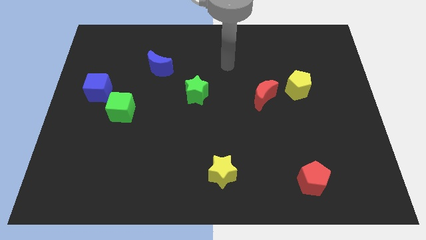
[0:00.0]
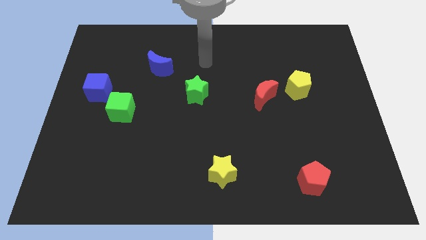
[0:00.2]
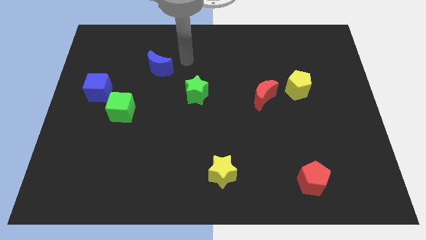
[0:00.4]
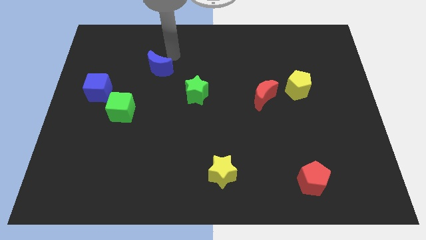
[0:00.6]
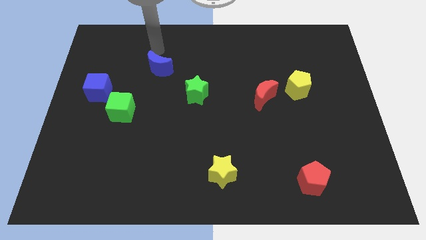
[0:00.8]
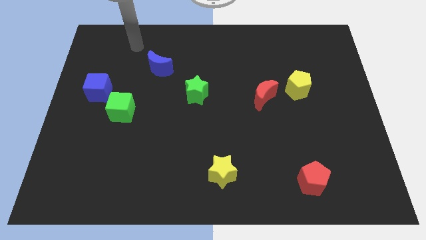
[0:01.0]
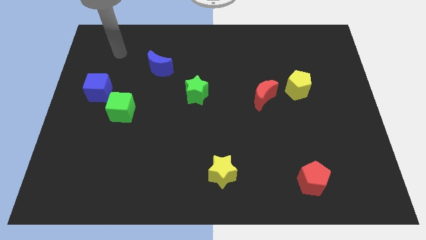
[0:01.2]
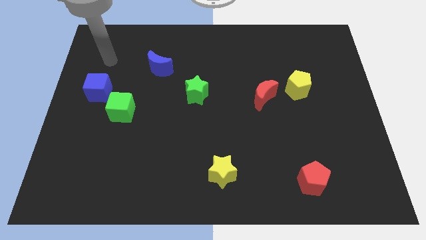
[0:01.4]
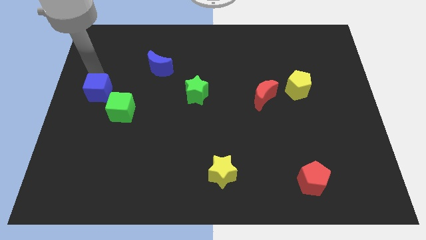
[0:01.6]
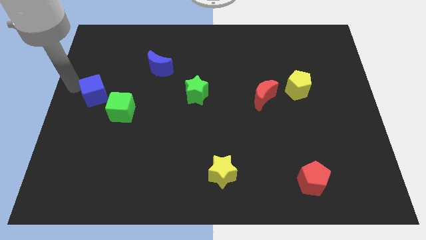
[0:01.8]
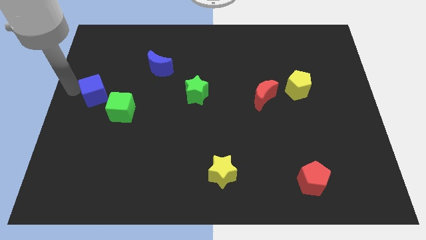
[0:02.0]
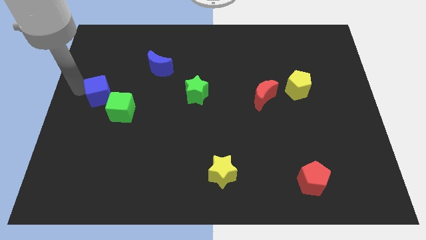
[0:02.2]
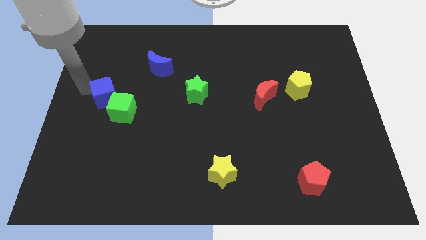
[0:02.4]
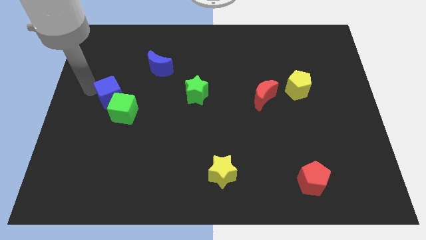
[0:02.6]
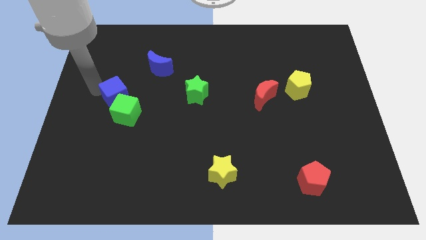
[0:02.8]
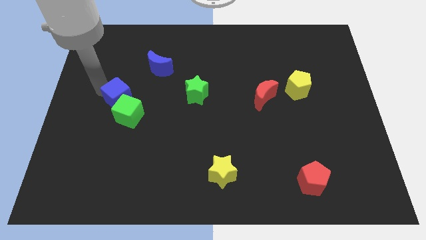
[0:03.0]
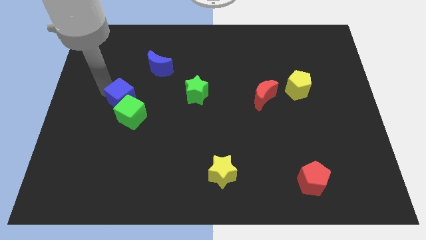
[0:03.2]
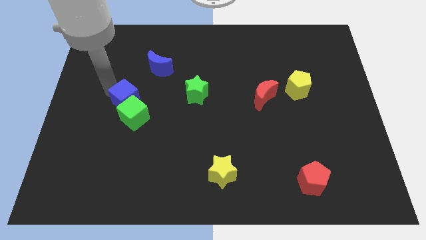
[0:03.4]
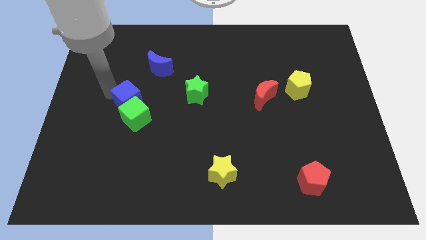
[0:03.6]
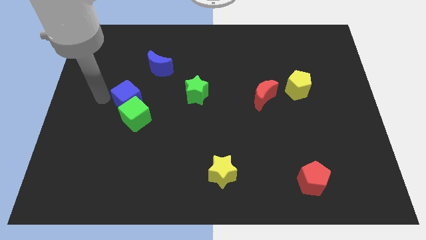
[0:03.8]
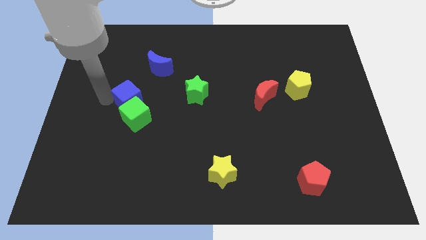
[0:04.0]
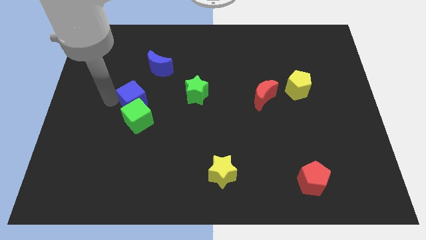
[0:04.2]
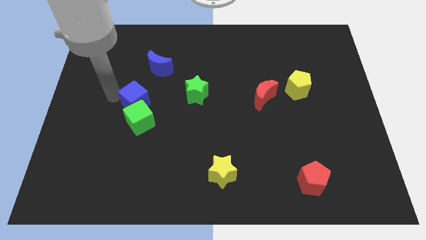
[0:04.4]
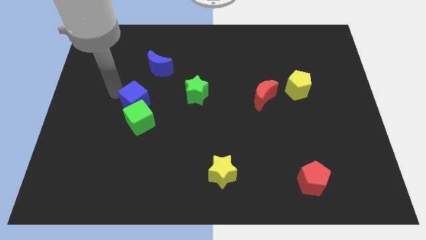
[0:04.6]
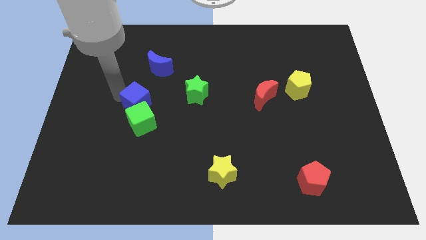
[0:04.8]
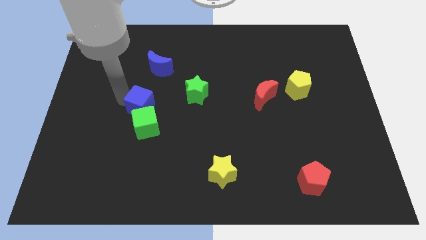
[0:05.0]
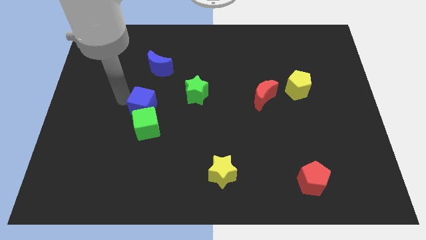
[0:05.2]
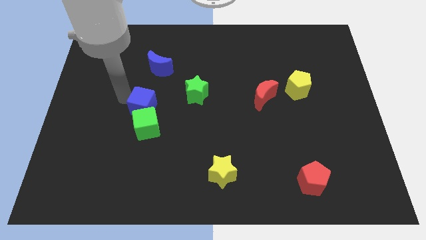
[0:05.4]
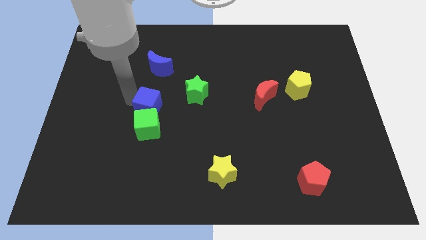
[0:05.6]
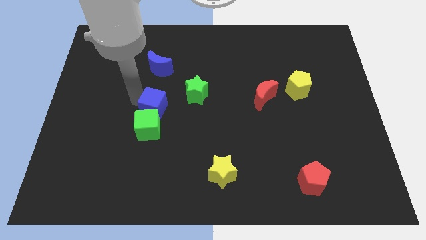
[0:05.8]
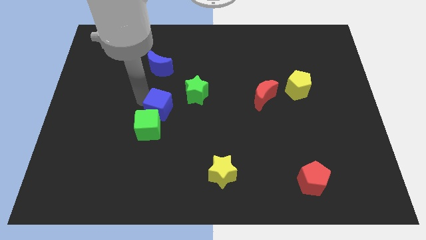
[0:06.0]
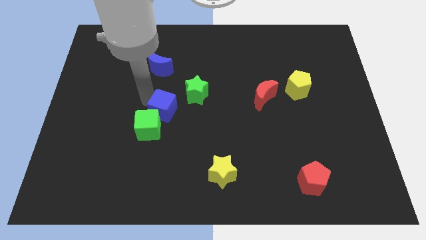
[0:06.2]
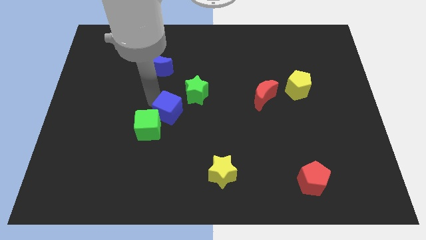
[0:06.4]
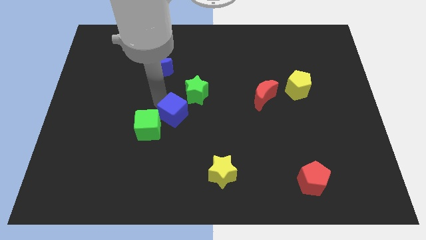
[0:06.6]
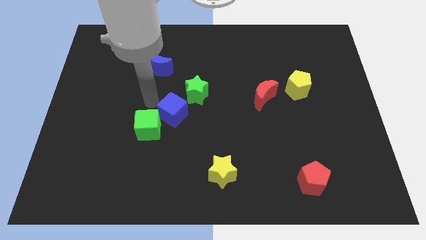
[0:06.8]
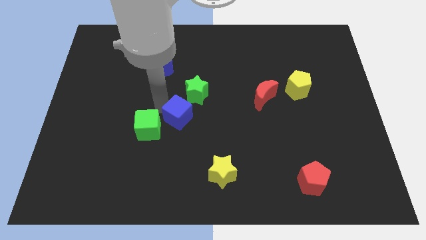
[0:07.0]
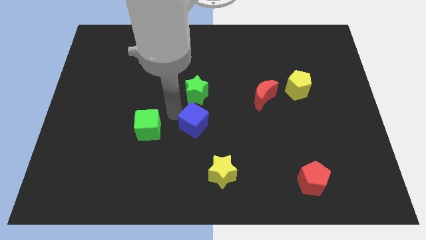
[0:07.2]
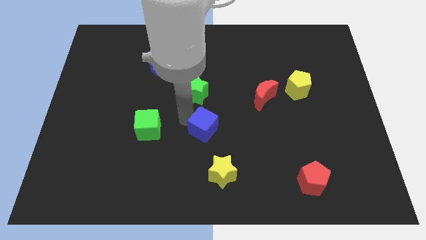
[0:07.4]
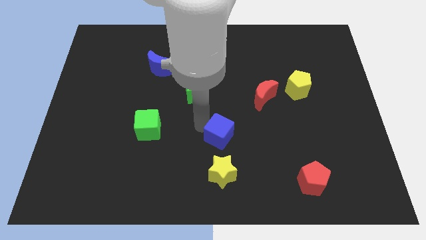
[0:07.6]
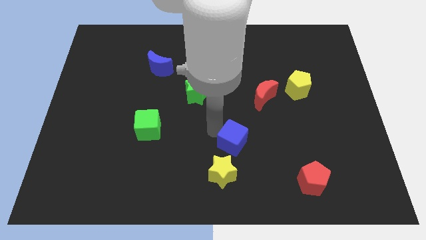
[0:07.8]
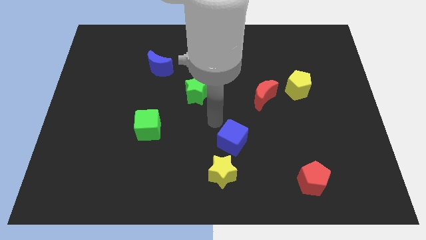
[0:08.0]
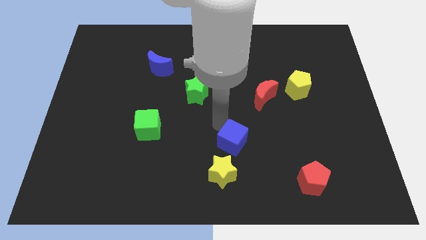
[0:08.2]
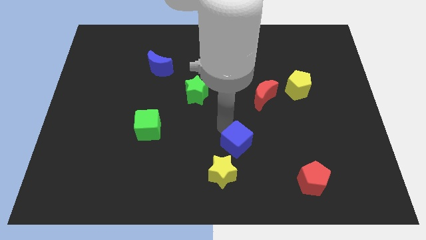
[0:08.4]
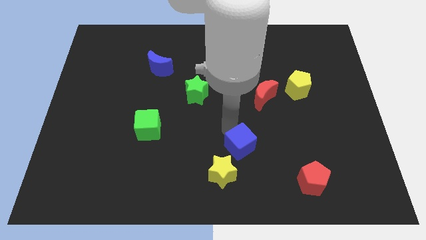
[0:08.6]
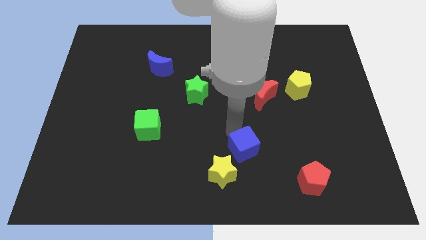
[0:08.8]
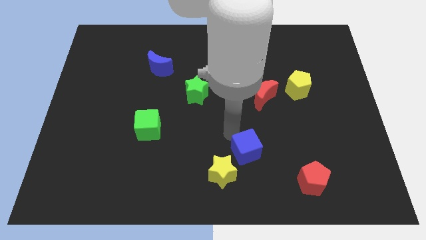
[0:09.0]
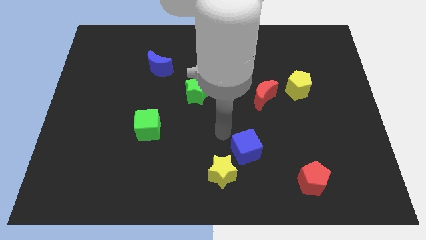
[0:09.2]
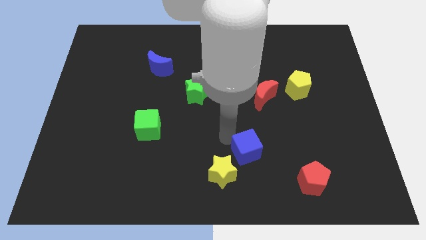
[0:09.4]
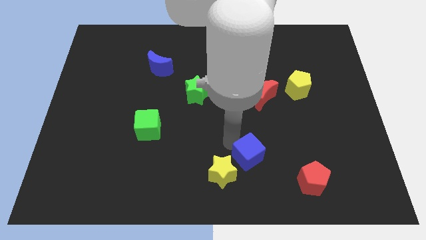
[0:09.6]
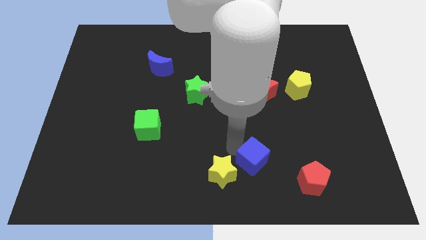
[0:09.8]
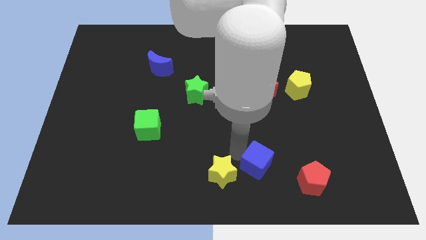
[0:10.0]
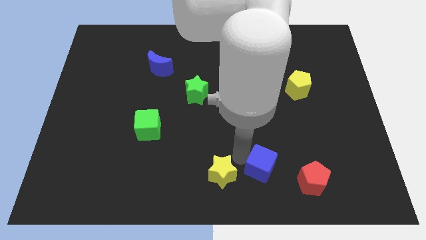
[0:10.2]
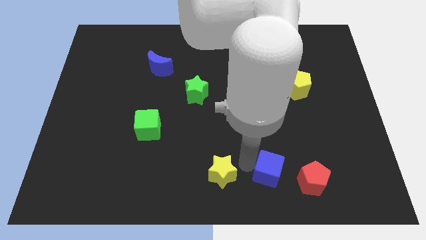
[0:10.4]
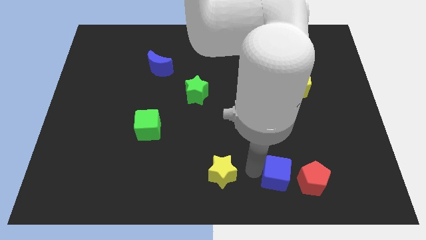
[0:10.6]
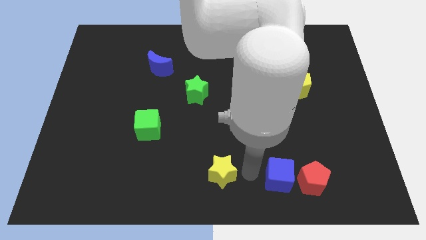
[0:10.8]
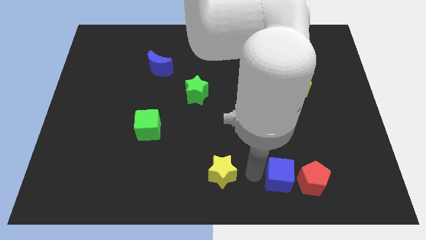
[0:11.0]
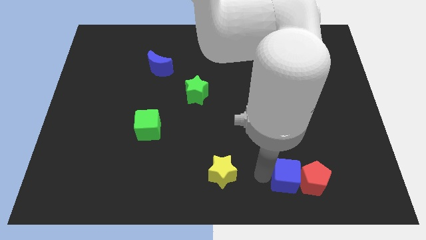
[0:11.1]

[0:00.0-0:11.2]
put the blue cube to the red pentagon

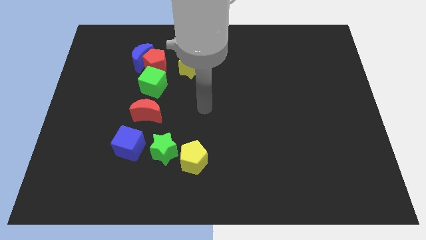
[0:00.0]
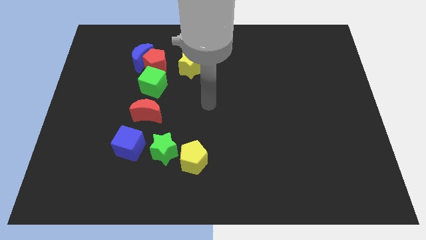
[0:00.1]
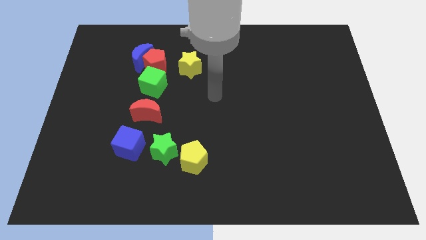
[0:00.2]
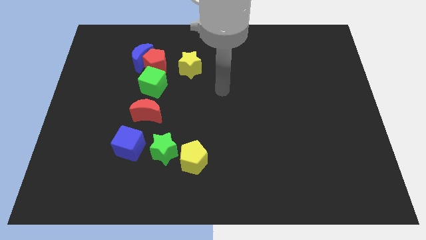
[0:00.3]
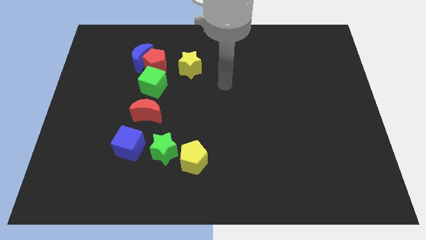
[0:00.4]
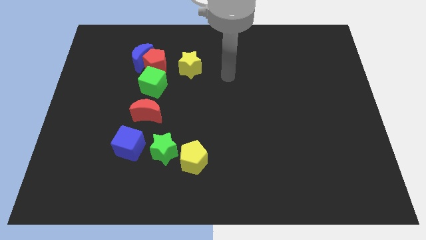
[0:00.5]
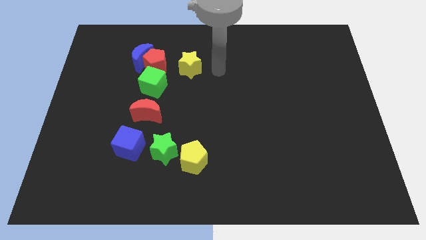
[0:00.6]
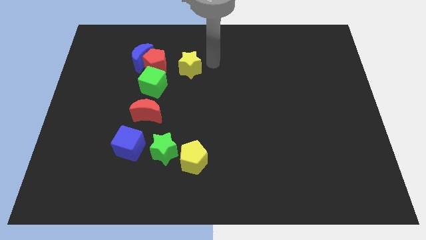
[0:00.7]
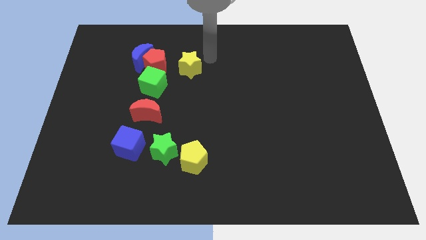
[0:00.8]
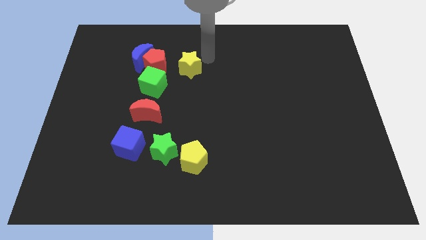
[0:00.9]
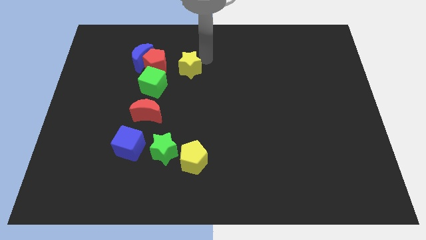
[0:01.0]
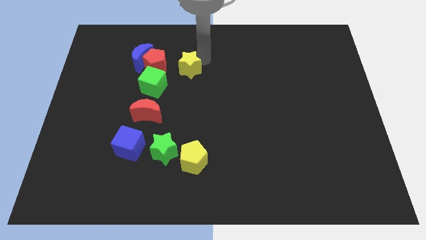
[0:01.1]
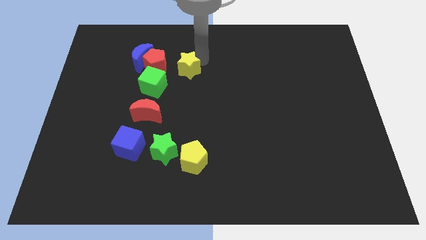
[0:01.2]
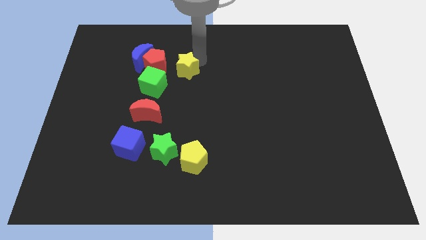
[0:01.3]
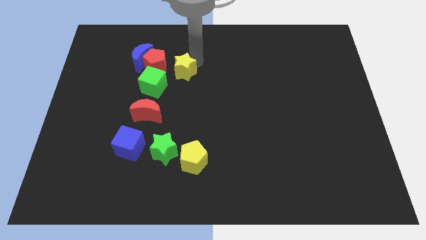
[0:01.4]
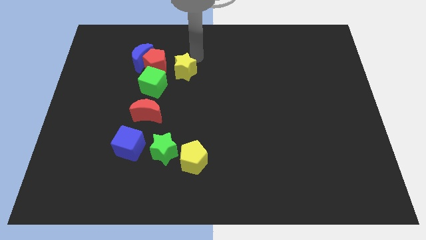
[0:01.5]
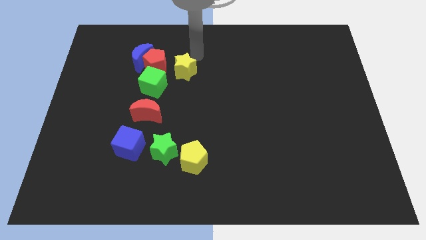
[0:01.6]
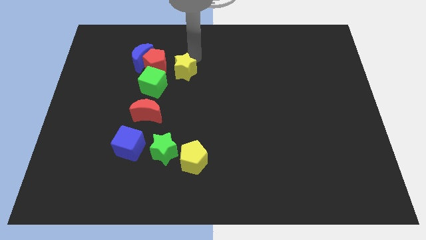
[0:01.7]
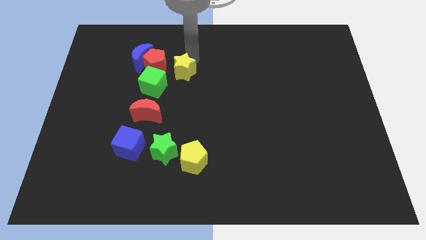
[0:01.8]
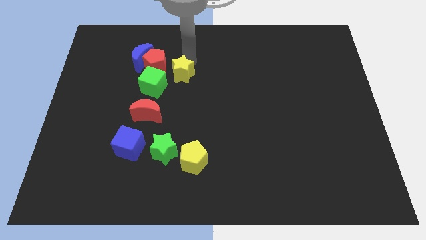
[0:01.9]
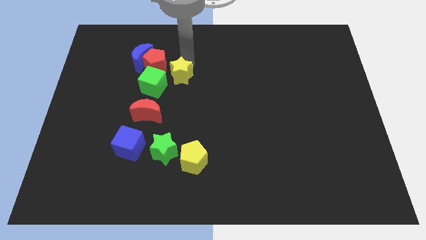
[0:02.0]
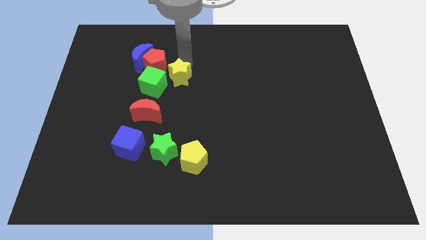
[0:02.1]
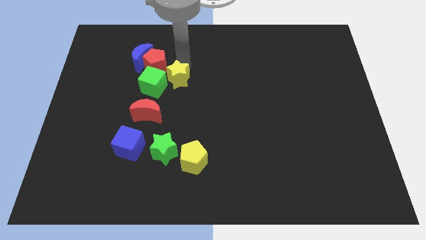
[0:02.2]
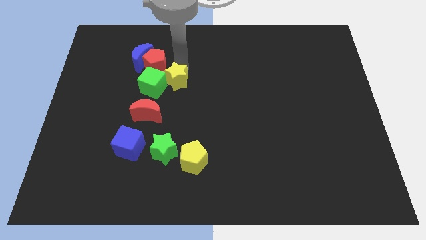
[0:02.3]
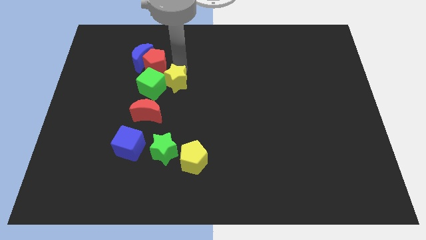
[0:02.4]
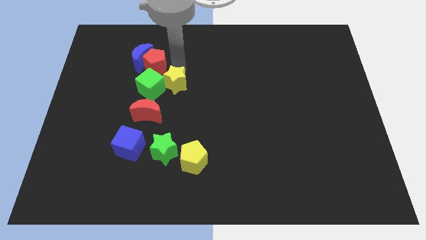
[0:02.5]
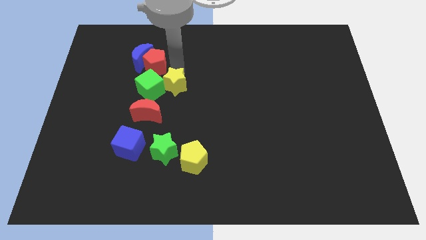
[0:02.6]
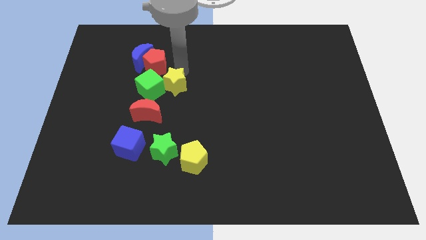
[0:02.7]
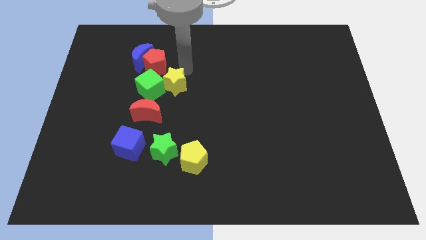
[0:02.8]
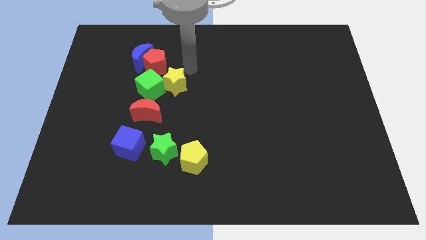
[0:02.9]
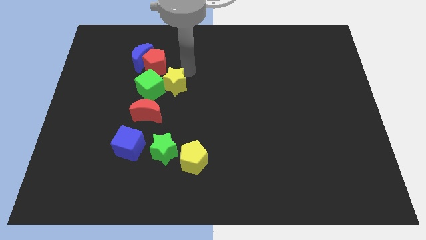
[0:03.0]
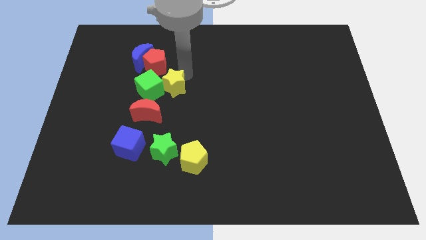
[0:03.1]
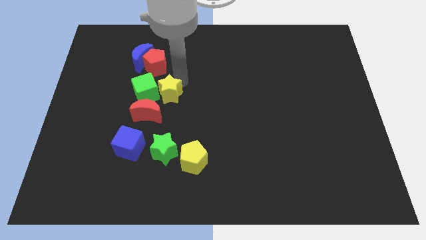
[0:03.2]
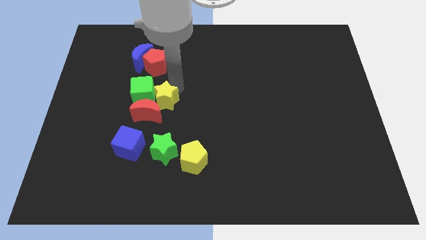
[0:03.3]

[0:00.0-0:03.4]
move the yellow star towards the red moon
